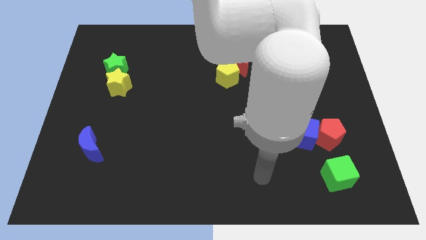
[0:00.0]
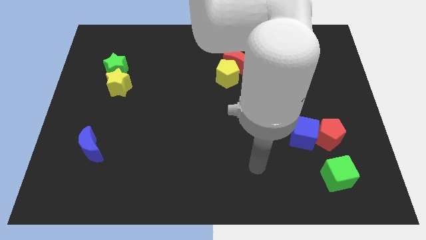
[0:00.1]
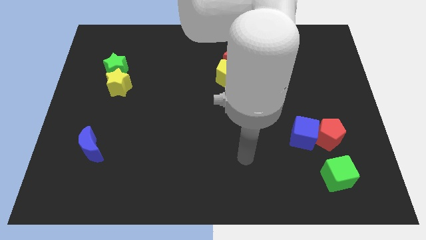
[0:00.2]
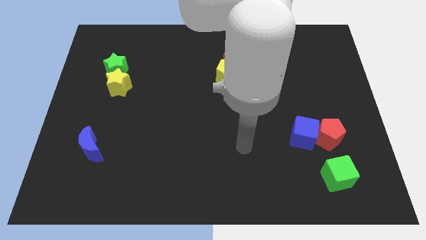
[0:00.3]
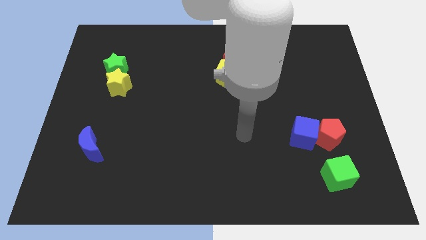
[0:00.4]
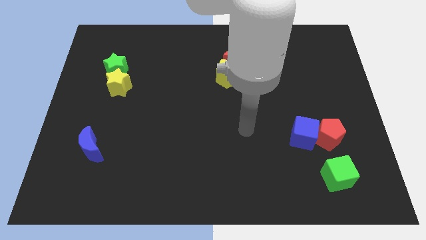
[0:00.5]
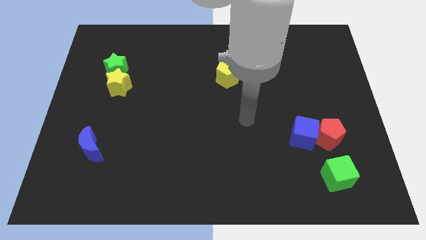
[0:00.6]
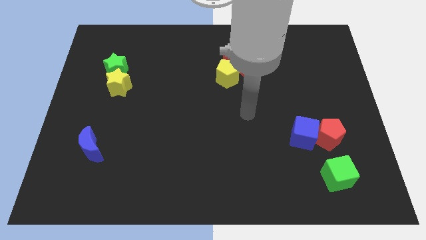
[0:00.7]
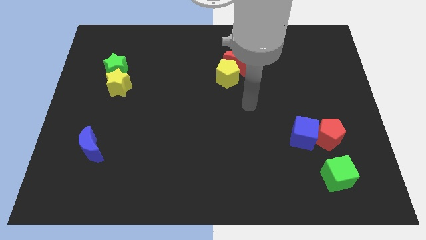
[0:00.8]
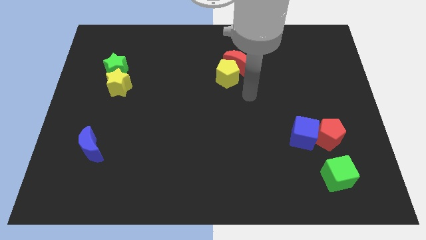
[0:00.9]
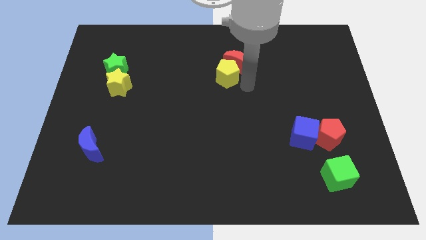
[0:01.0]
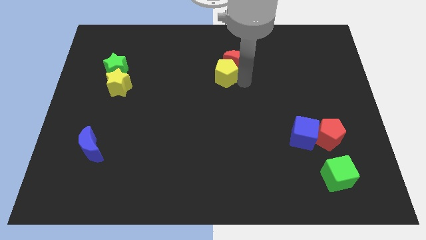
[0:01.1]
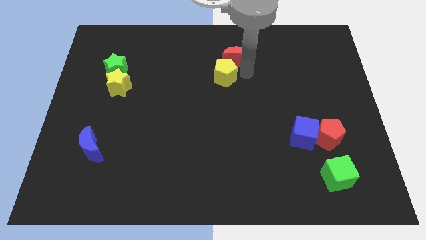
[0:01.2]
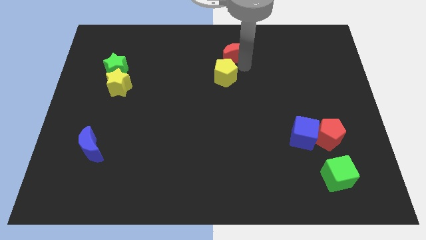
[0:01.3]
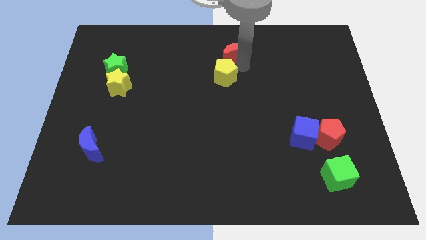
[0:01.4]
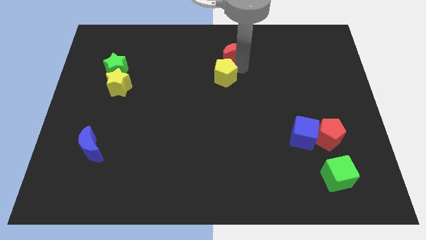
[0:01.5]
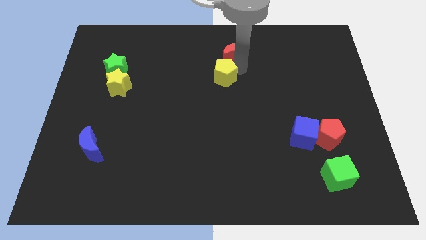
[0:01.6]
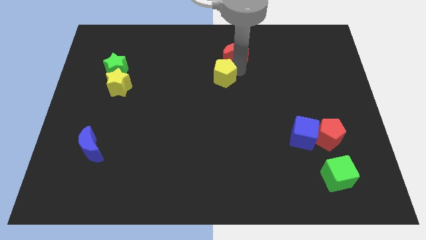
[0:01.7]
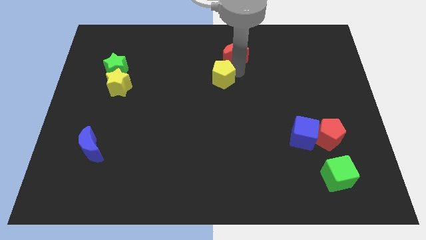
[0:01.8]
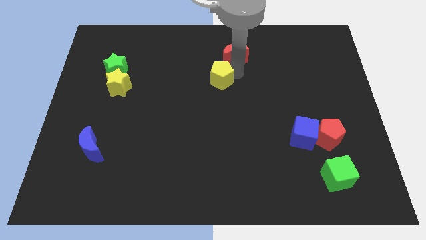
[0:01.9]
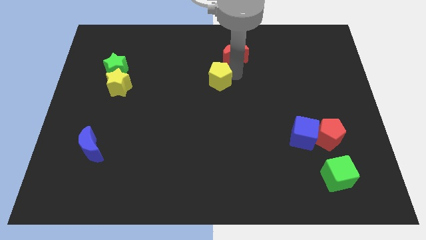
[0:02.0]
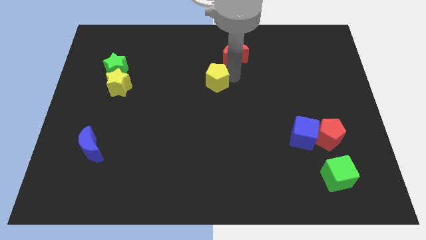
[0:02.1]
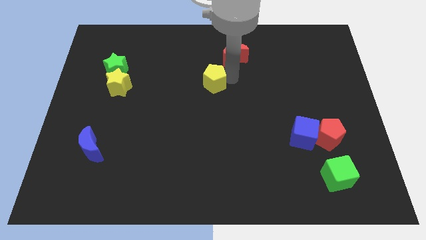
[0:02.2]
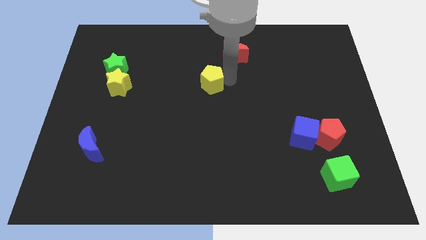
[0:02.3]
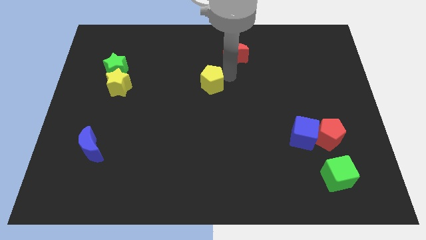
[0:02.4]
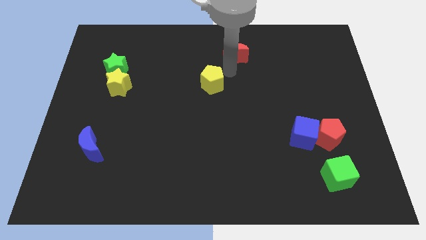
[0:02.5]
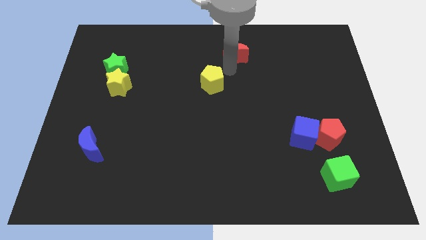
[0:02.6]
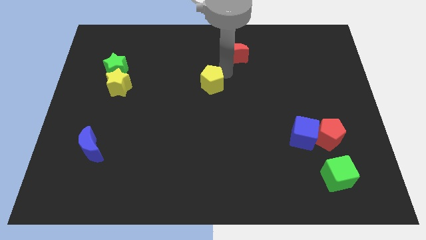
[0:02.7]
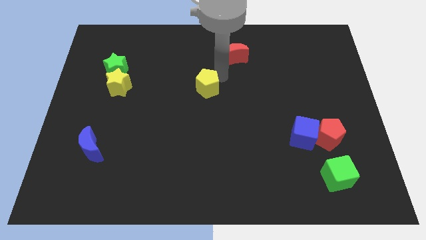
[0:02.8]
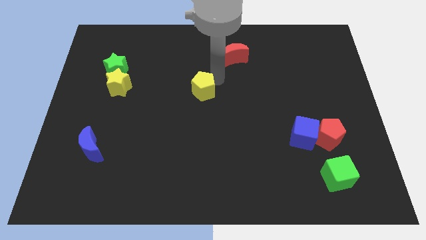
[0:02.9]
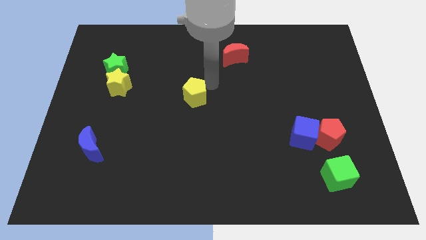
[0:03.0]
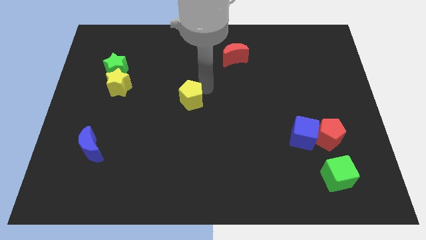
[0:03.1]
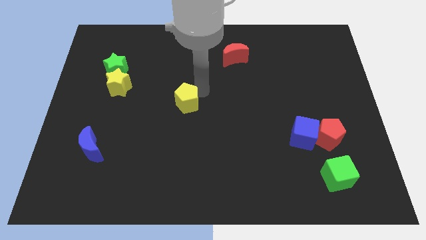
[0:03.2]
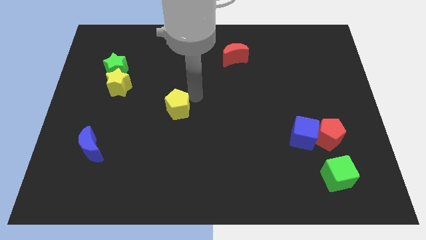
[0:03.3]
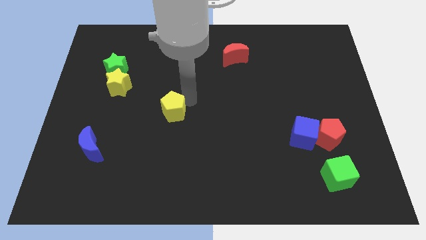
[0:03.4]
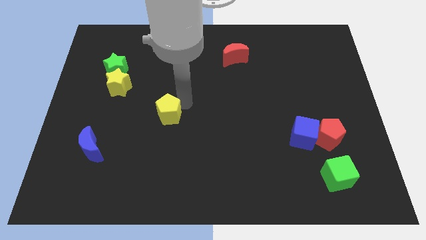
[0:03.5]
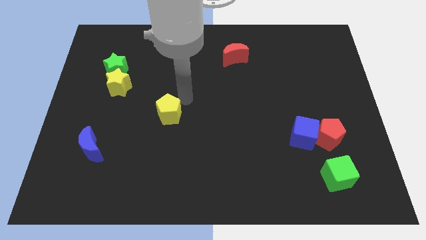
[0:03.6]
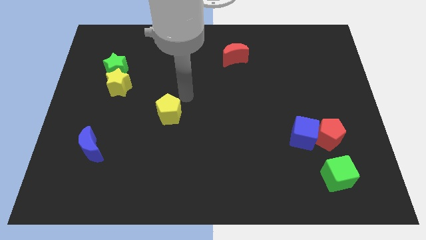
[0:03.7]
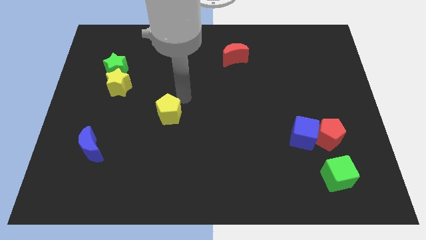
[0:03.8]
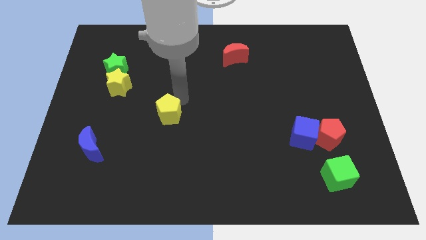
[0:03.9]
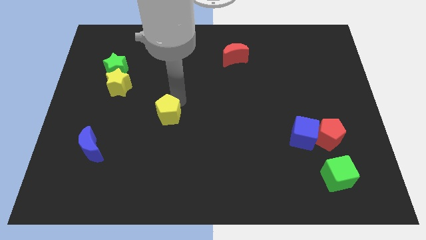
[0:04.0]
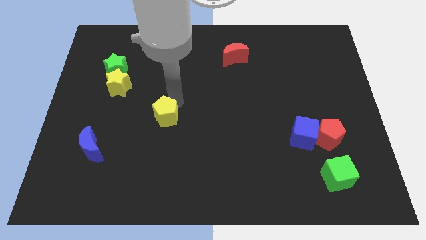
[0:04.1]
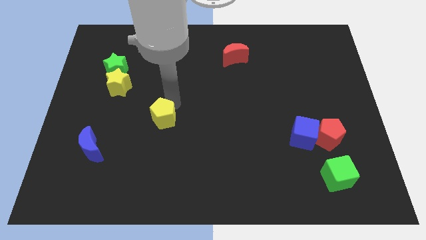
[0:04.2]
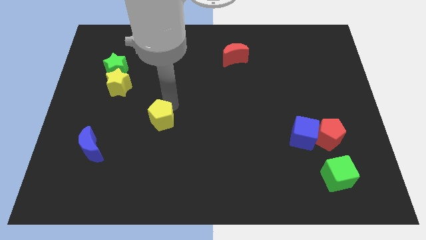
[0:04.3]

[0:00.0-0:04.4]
move the yellow pentagon down and then to the left

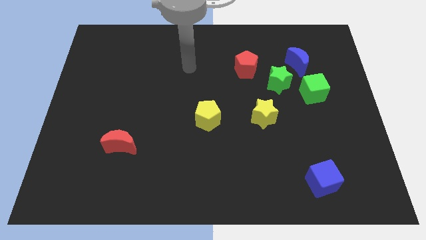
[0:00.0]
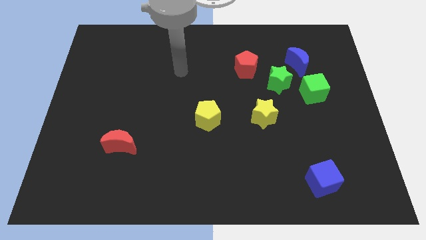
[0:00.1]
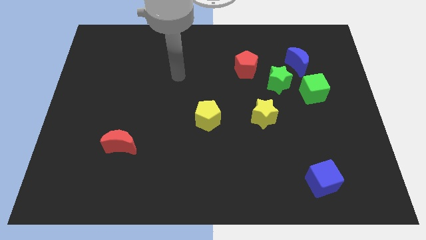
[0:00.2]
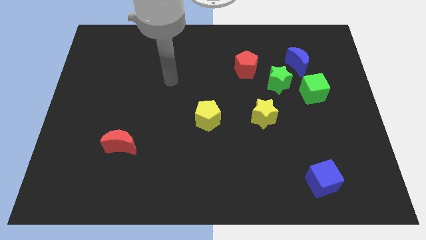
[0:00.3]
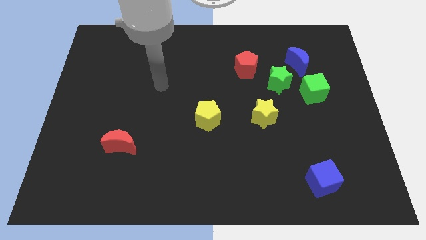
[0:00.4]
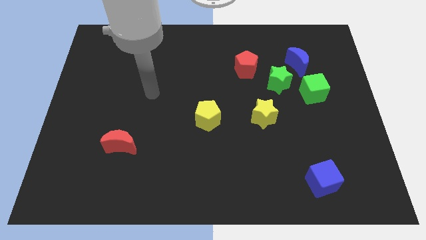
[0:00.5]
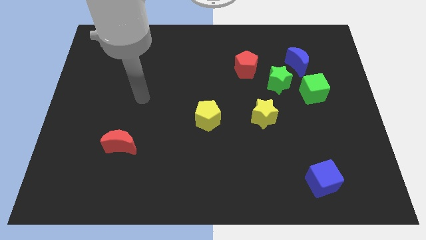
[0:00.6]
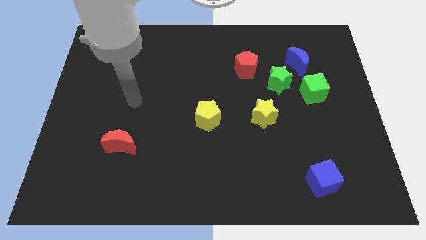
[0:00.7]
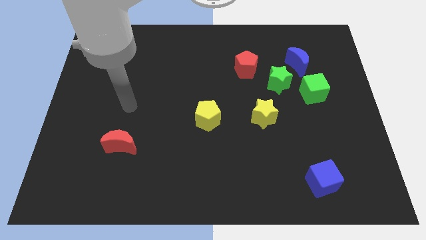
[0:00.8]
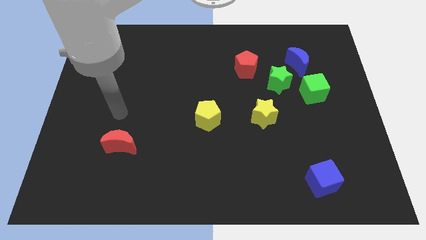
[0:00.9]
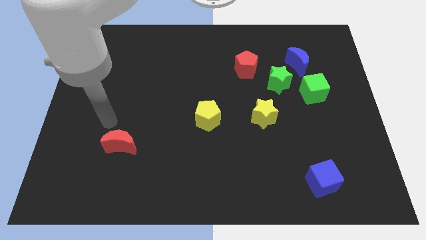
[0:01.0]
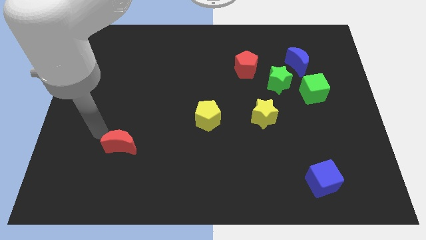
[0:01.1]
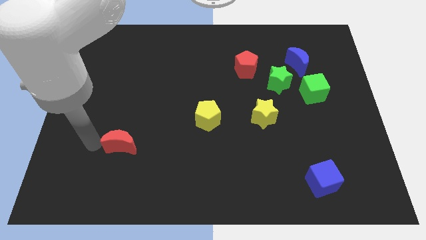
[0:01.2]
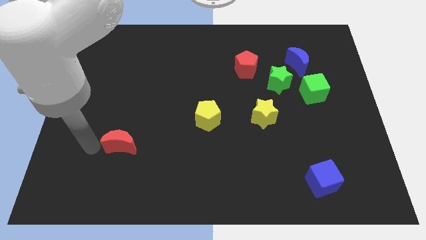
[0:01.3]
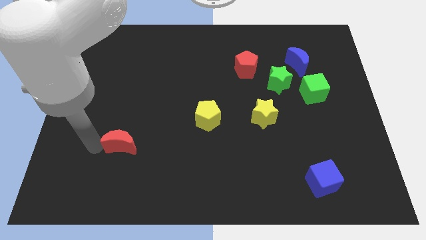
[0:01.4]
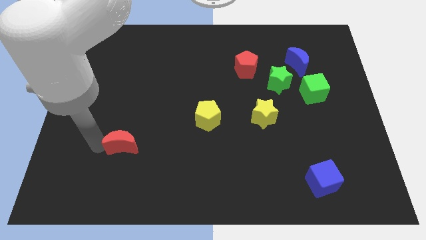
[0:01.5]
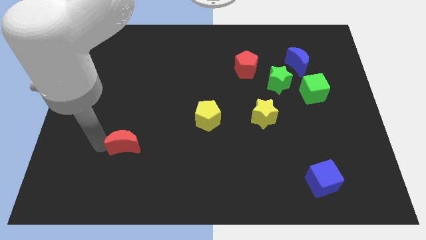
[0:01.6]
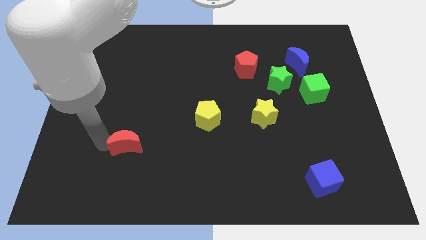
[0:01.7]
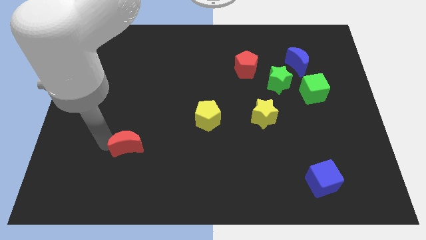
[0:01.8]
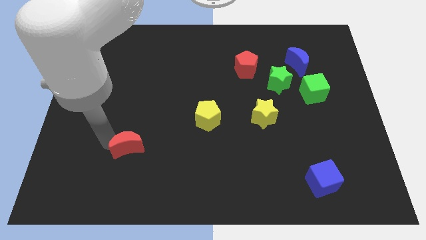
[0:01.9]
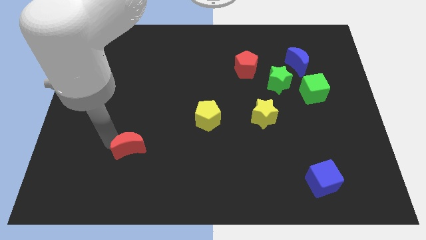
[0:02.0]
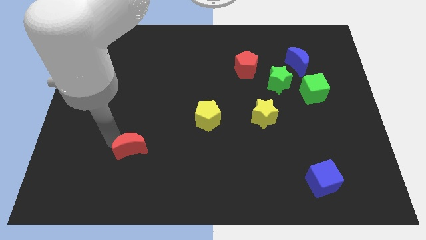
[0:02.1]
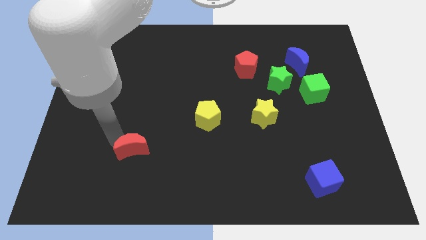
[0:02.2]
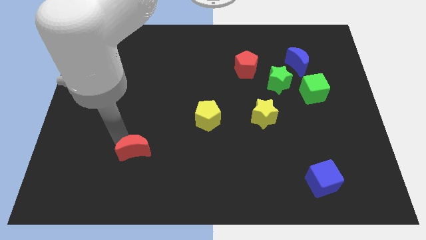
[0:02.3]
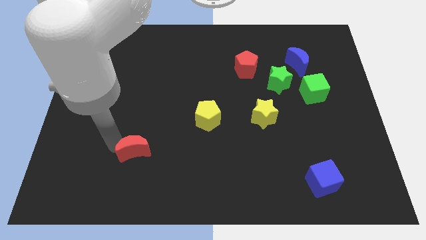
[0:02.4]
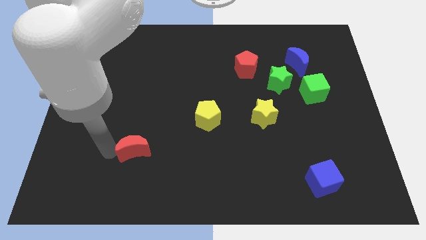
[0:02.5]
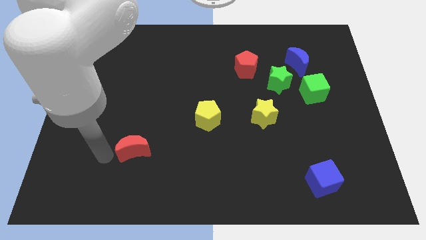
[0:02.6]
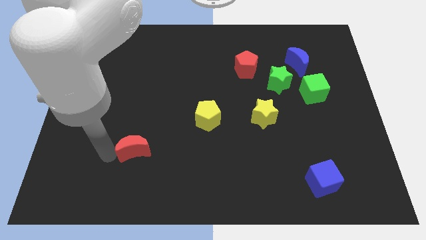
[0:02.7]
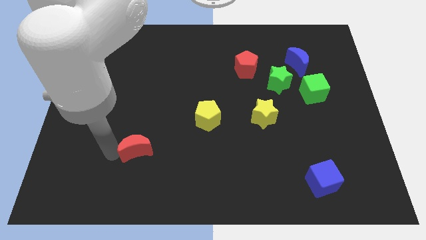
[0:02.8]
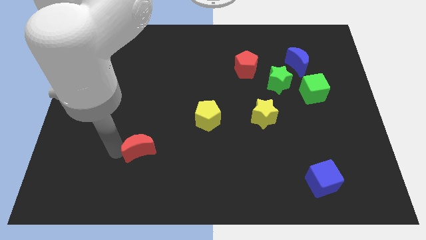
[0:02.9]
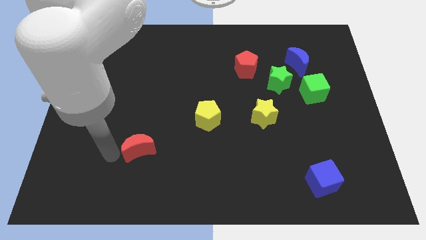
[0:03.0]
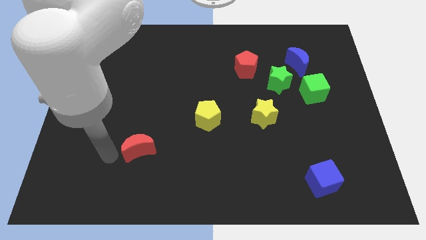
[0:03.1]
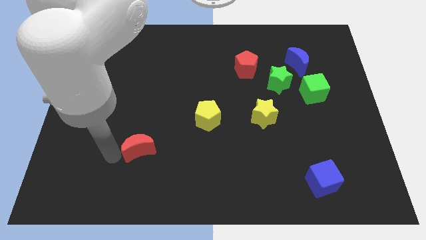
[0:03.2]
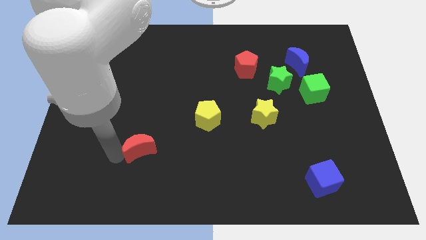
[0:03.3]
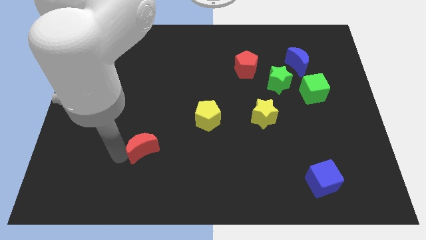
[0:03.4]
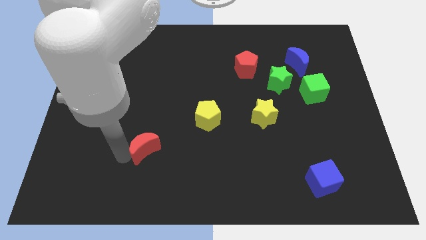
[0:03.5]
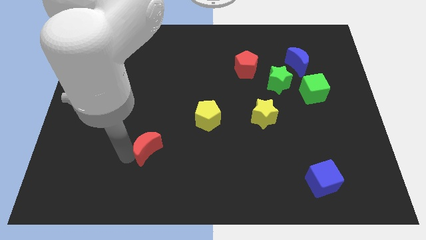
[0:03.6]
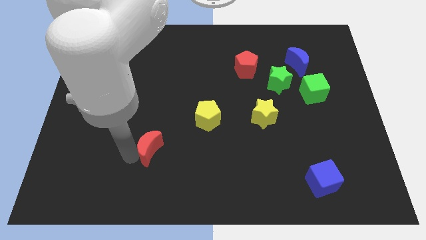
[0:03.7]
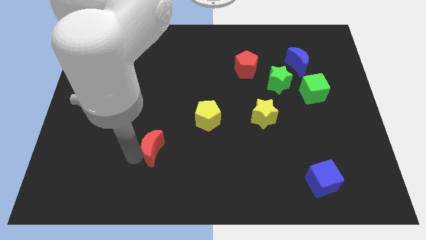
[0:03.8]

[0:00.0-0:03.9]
slightly push the red moon to the right
